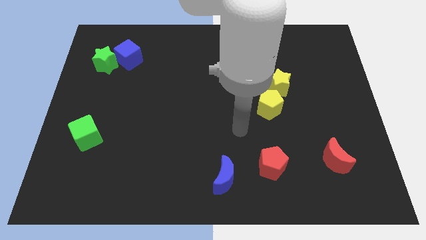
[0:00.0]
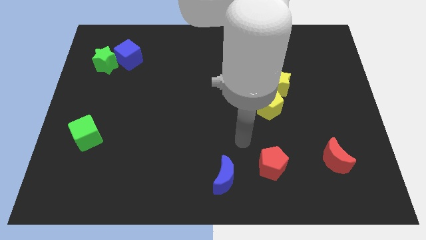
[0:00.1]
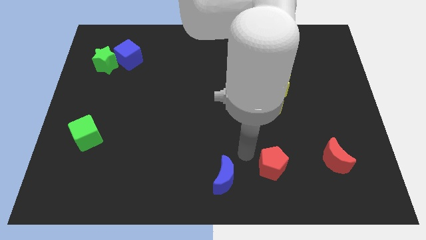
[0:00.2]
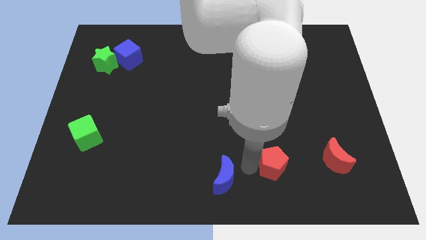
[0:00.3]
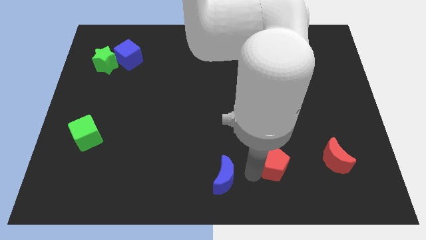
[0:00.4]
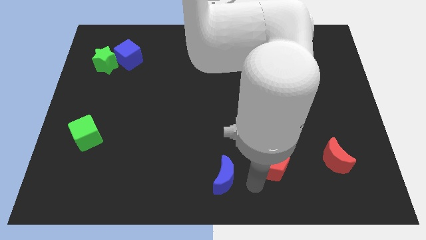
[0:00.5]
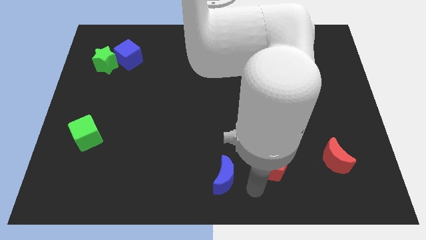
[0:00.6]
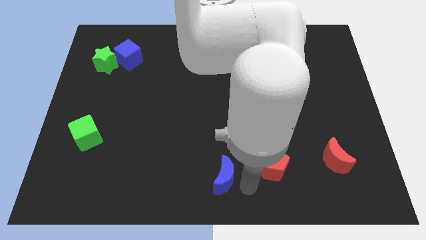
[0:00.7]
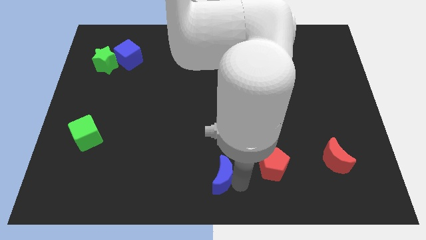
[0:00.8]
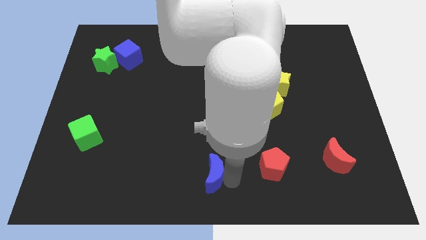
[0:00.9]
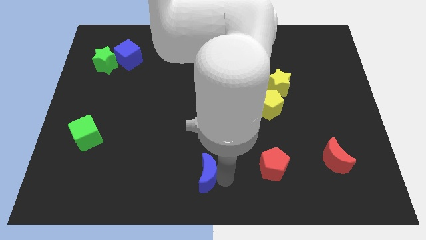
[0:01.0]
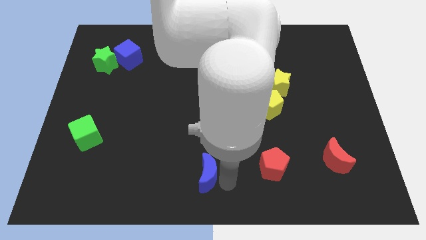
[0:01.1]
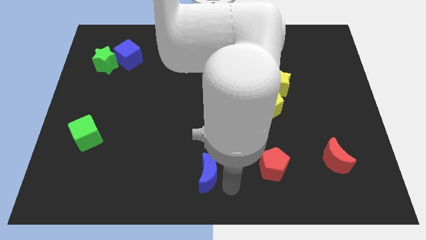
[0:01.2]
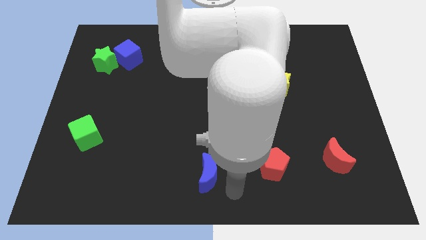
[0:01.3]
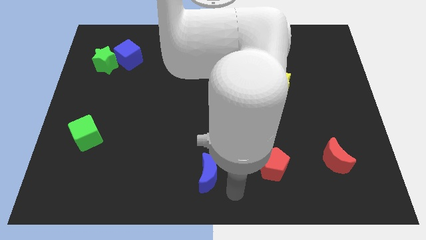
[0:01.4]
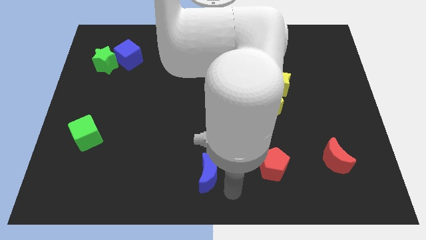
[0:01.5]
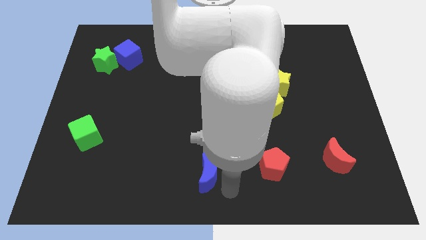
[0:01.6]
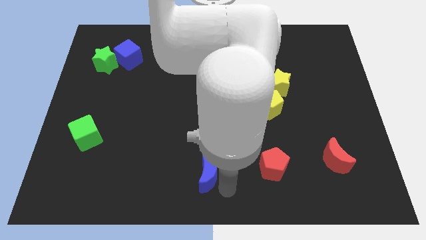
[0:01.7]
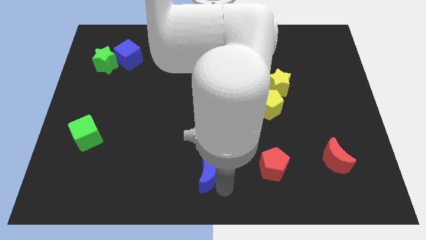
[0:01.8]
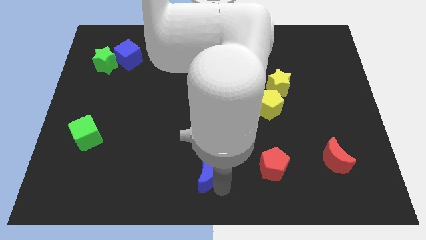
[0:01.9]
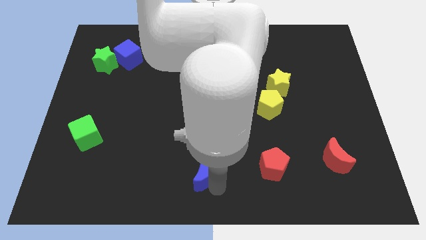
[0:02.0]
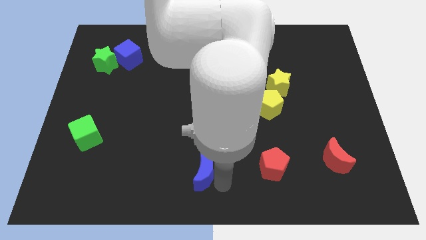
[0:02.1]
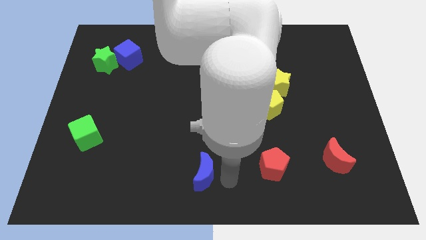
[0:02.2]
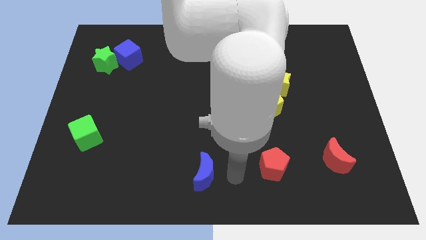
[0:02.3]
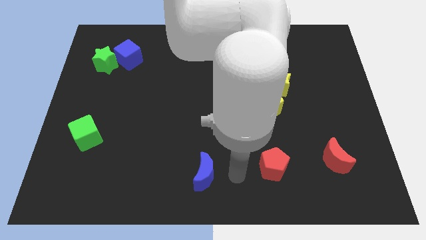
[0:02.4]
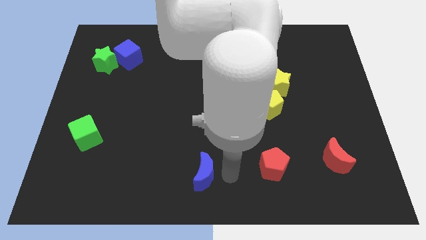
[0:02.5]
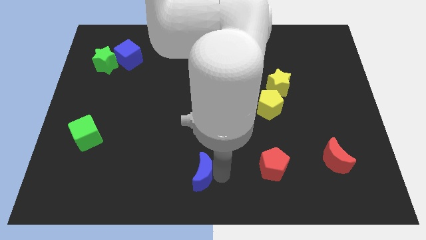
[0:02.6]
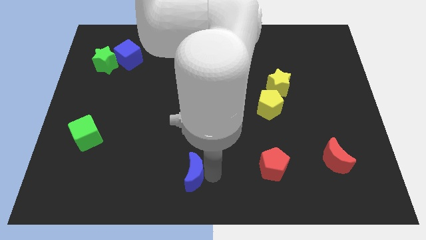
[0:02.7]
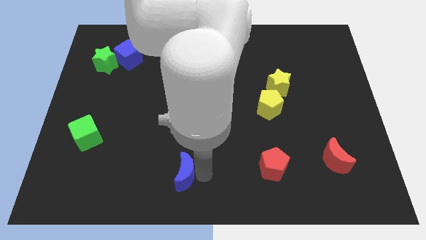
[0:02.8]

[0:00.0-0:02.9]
slightly move the blue moon left

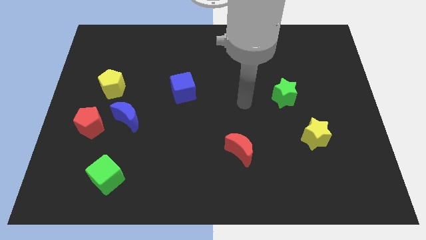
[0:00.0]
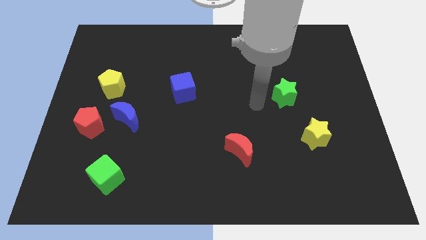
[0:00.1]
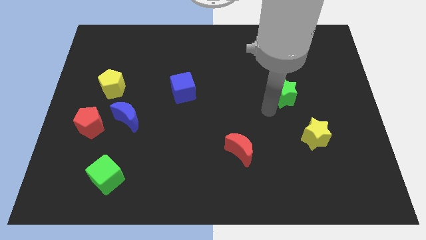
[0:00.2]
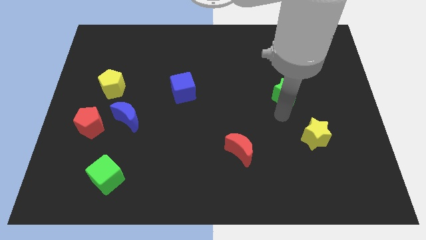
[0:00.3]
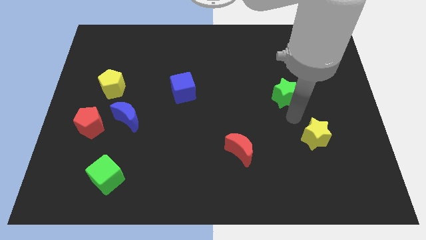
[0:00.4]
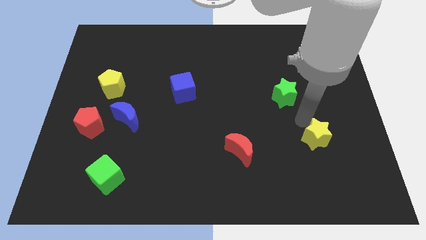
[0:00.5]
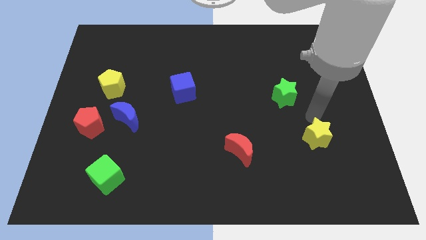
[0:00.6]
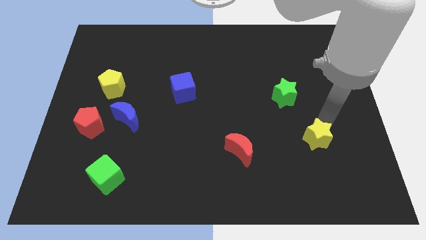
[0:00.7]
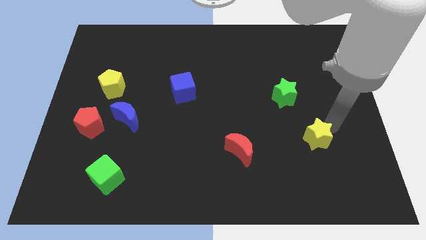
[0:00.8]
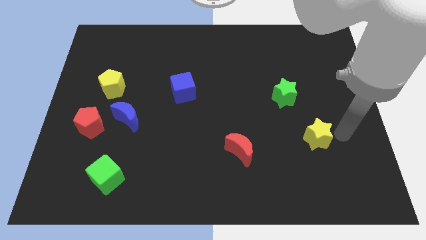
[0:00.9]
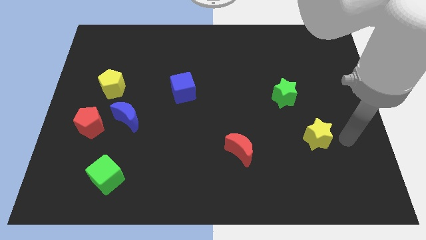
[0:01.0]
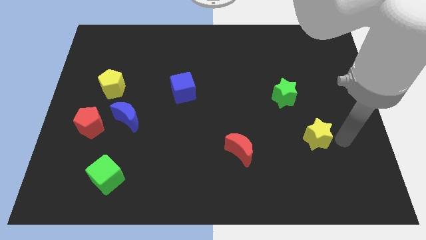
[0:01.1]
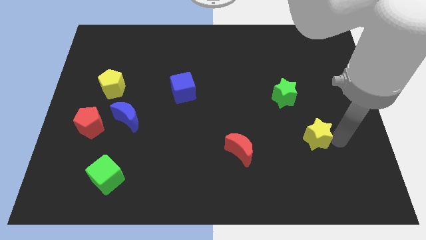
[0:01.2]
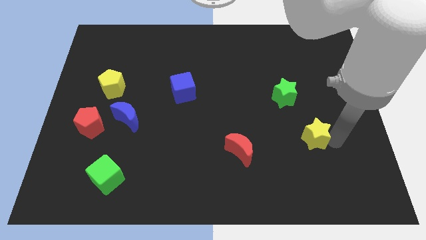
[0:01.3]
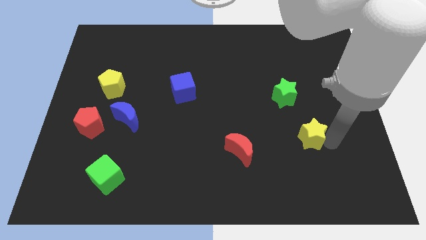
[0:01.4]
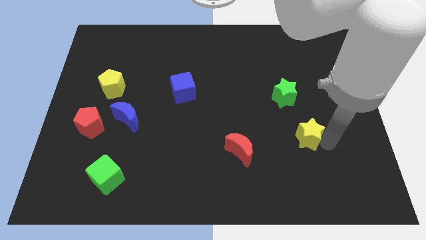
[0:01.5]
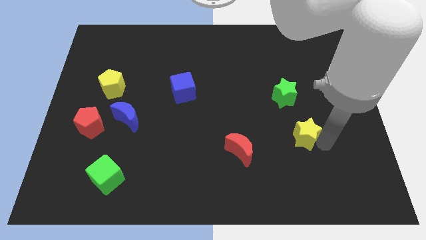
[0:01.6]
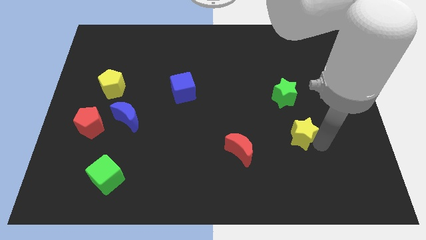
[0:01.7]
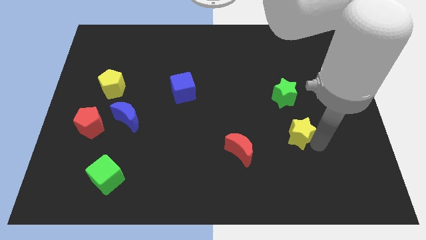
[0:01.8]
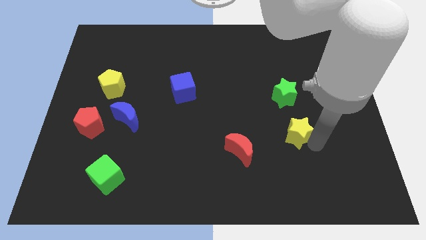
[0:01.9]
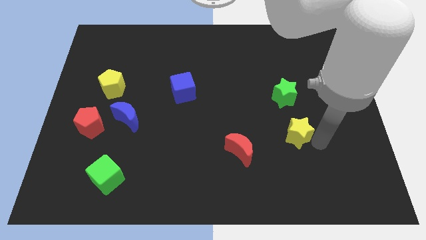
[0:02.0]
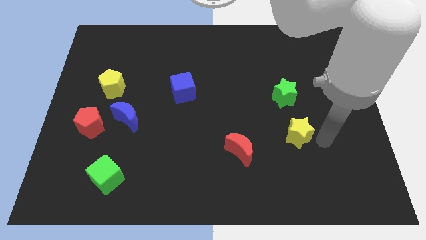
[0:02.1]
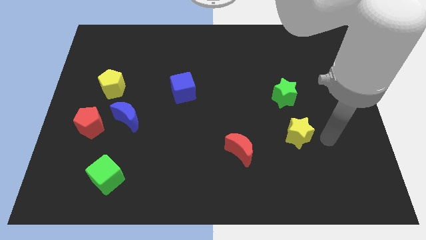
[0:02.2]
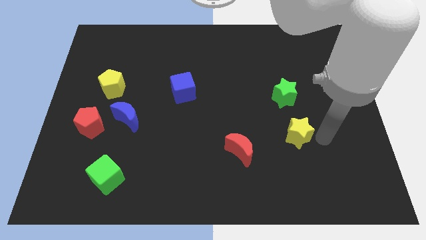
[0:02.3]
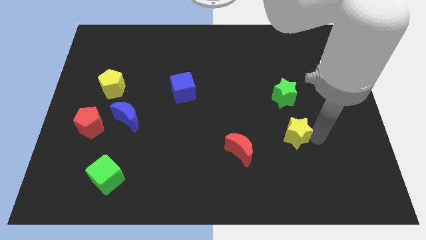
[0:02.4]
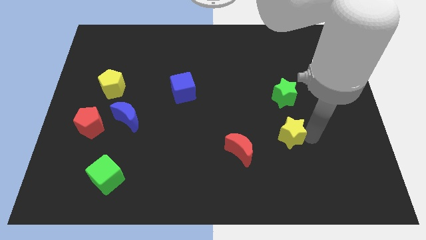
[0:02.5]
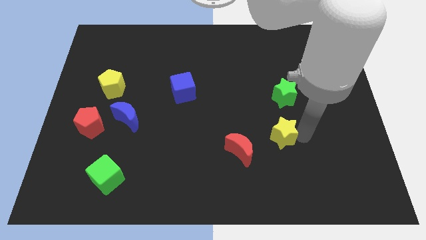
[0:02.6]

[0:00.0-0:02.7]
slightly move the yellow star to the left

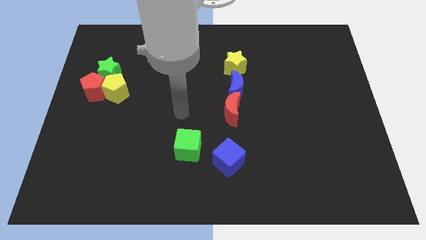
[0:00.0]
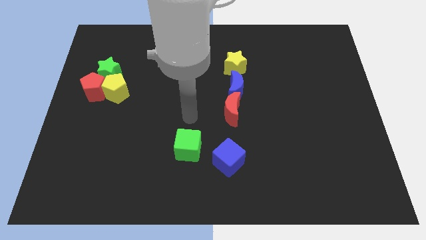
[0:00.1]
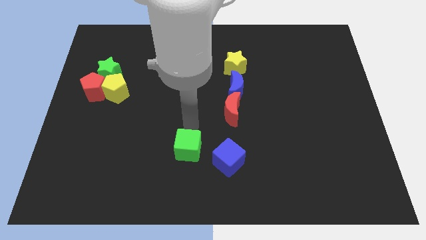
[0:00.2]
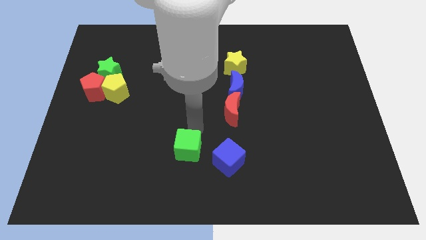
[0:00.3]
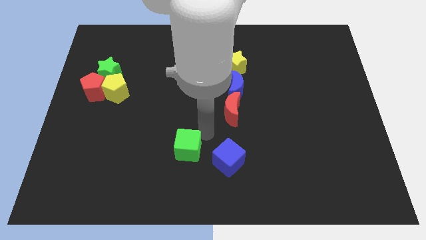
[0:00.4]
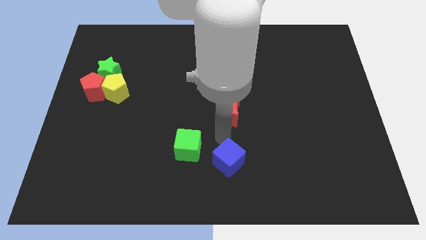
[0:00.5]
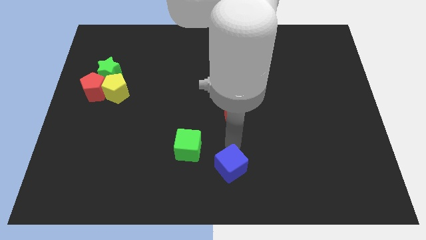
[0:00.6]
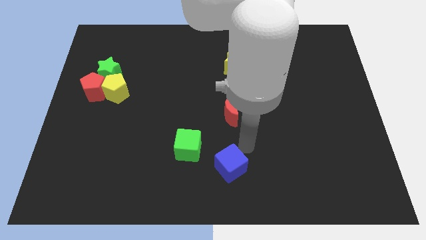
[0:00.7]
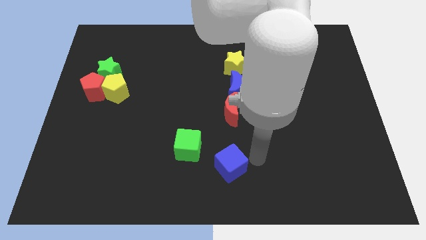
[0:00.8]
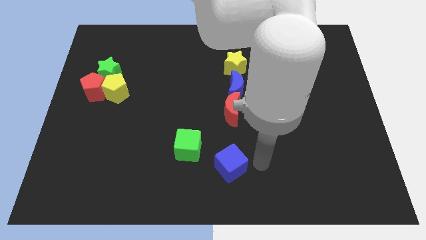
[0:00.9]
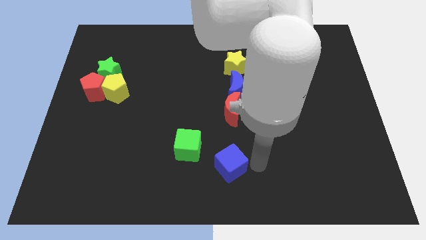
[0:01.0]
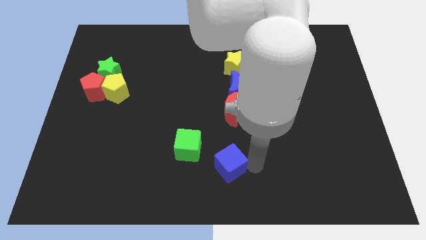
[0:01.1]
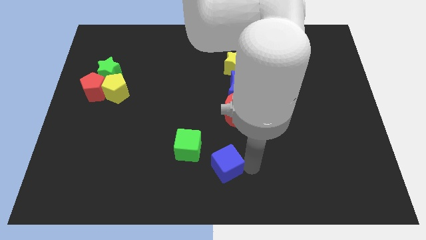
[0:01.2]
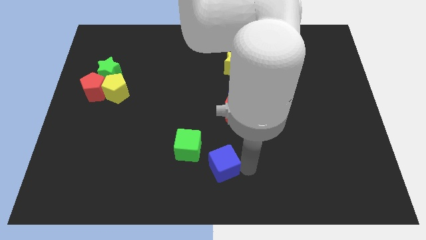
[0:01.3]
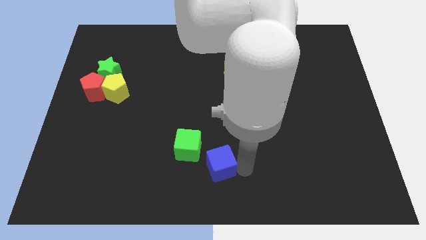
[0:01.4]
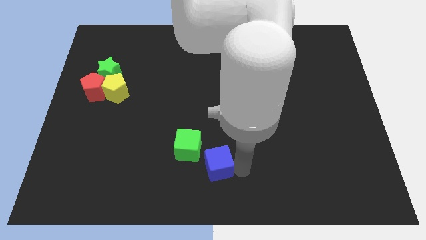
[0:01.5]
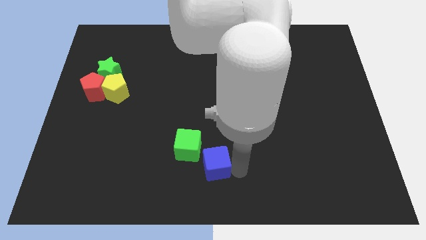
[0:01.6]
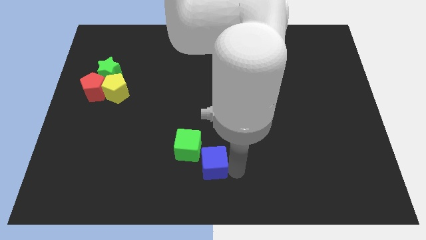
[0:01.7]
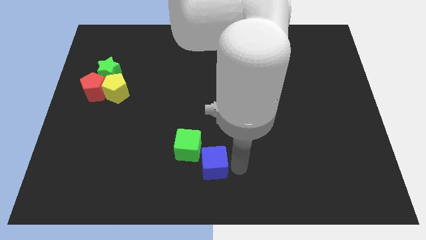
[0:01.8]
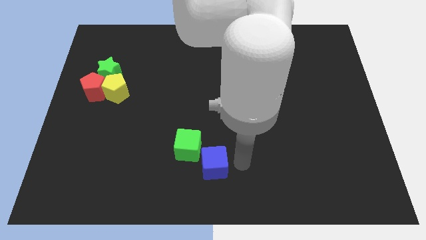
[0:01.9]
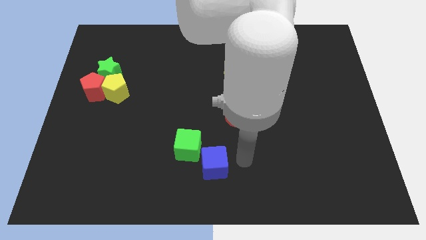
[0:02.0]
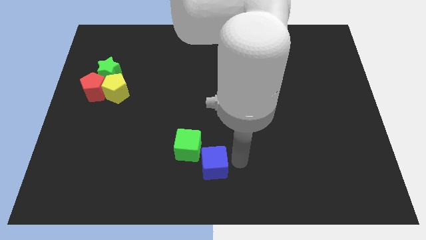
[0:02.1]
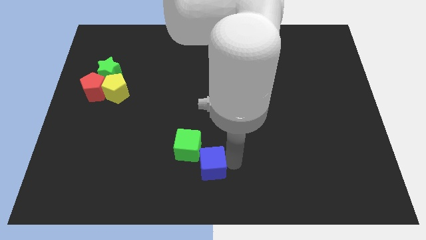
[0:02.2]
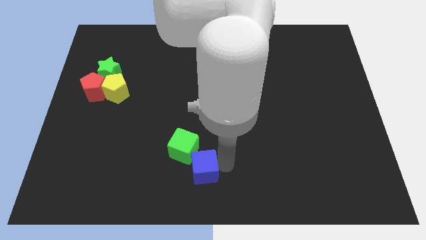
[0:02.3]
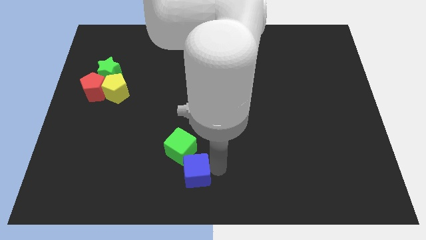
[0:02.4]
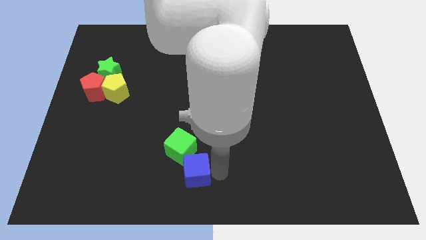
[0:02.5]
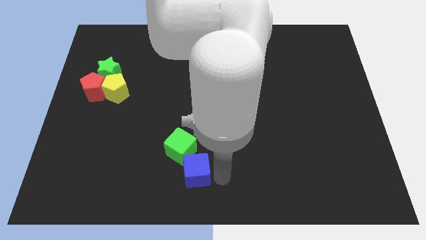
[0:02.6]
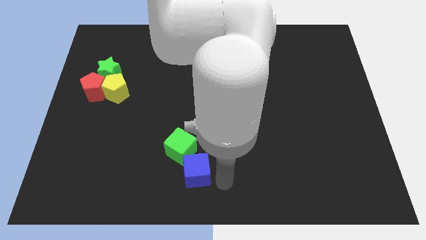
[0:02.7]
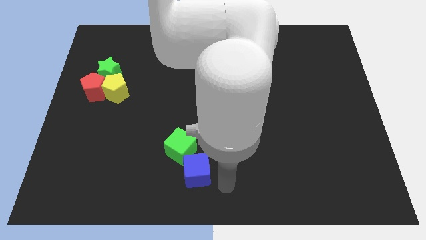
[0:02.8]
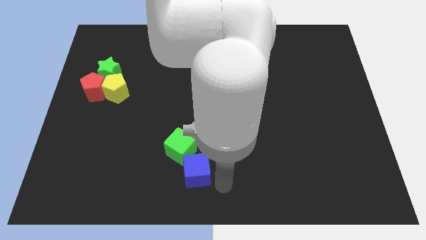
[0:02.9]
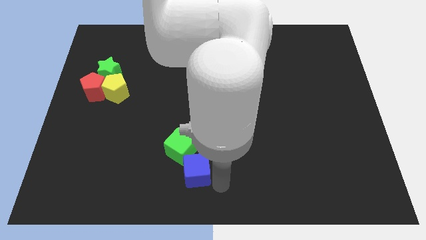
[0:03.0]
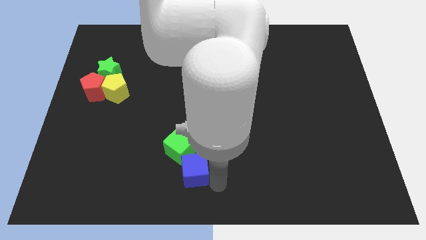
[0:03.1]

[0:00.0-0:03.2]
move the blue cube slightly left

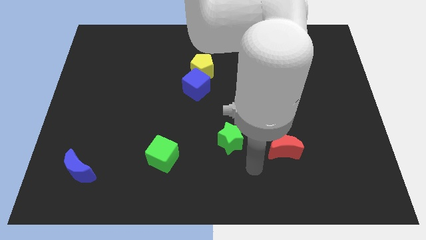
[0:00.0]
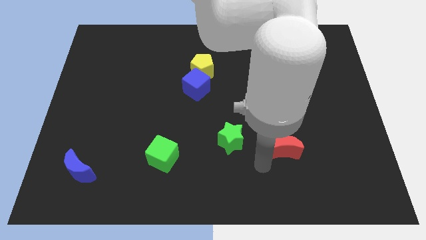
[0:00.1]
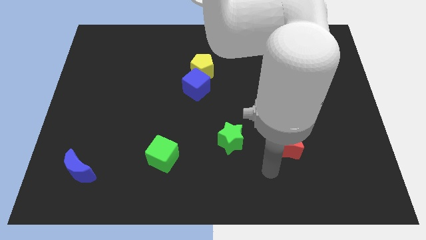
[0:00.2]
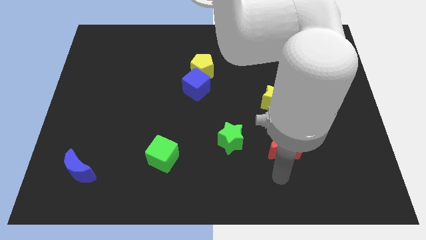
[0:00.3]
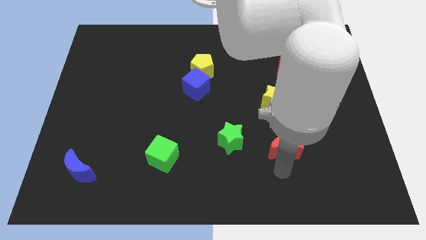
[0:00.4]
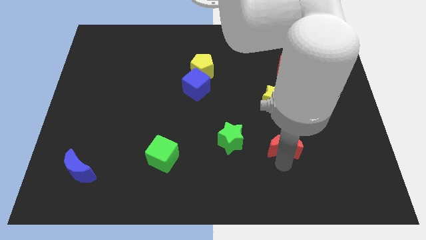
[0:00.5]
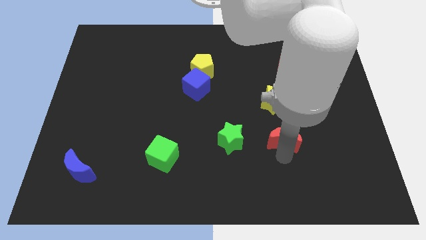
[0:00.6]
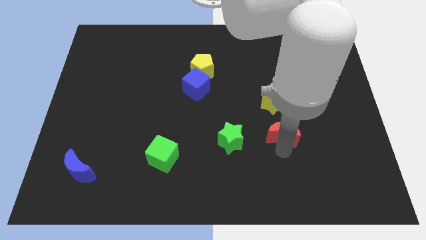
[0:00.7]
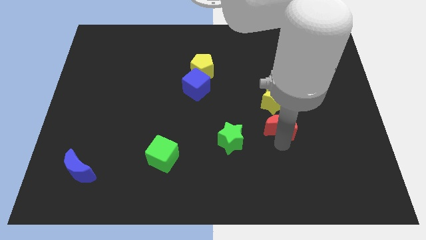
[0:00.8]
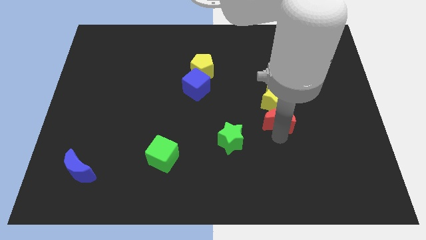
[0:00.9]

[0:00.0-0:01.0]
slightly slide the red moon upwards
